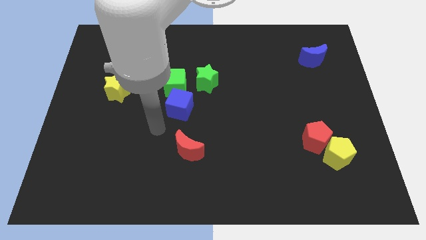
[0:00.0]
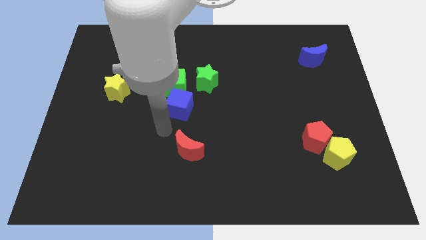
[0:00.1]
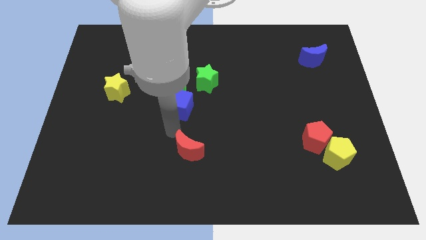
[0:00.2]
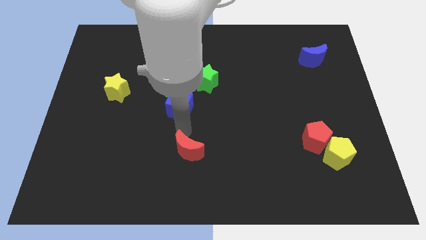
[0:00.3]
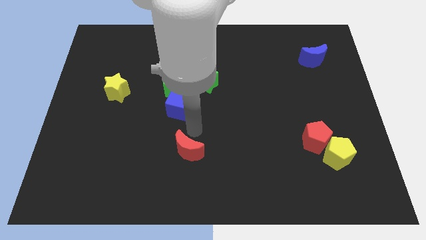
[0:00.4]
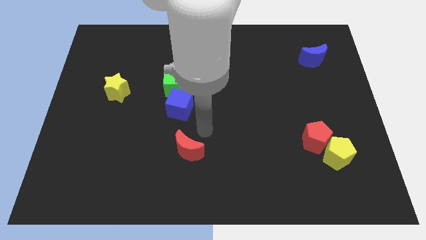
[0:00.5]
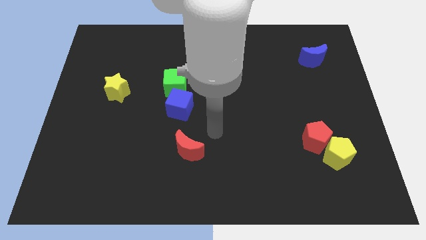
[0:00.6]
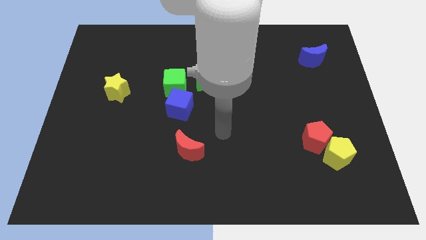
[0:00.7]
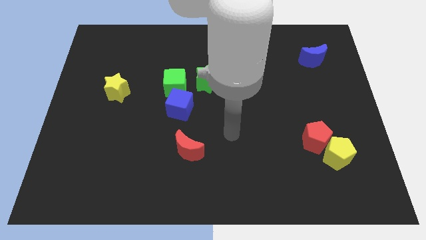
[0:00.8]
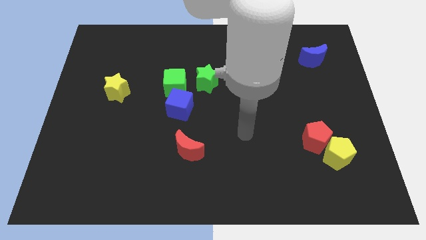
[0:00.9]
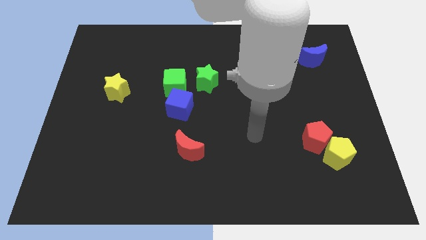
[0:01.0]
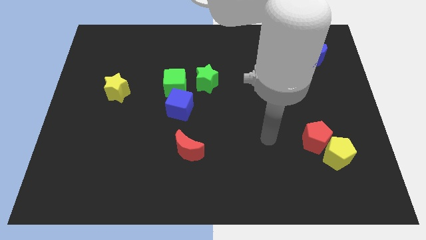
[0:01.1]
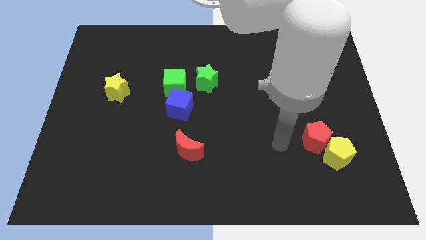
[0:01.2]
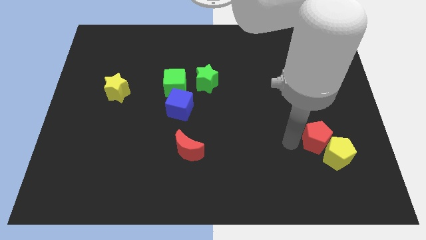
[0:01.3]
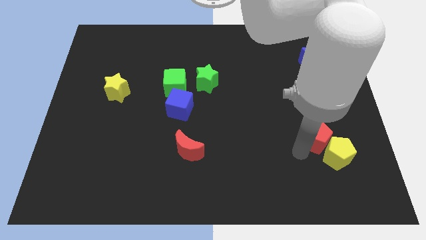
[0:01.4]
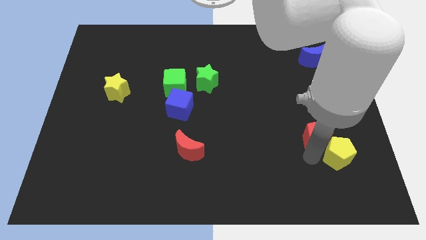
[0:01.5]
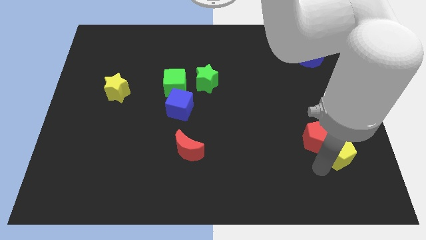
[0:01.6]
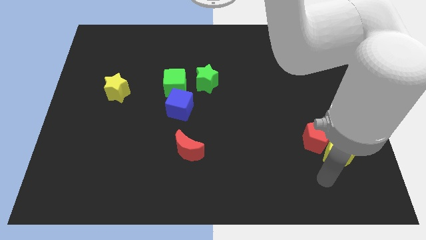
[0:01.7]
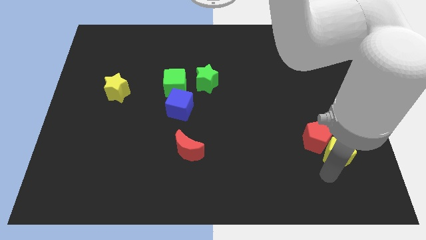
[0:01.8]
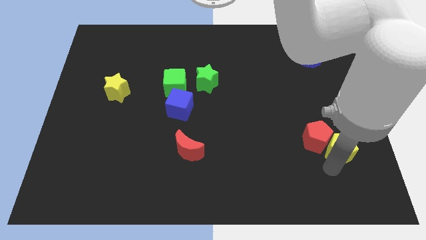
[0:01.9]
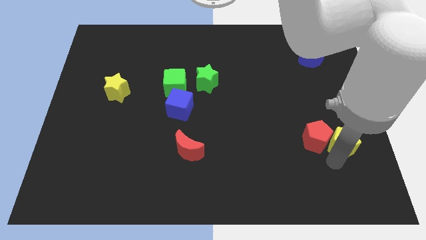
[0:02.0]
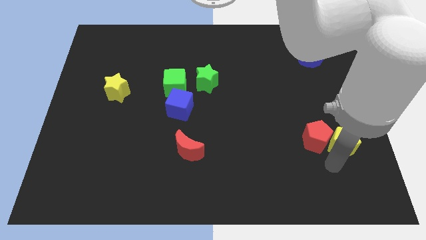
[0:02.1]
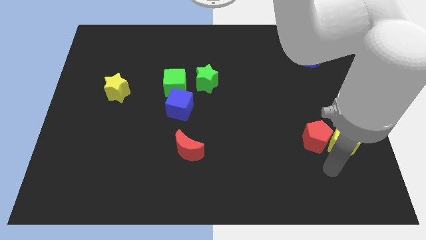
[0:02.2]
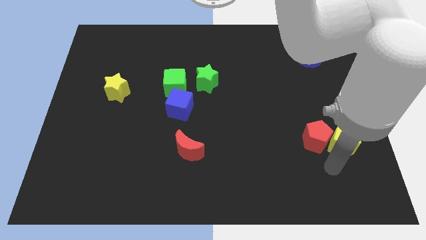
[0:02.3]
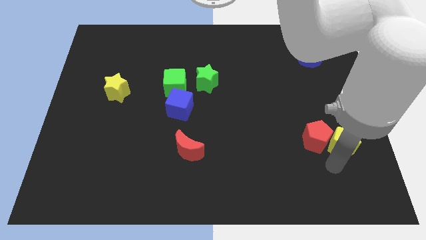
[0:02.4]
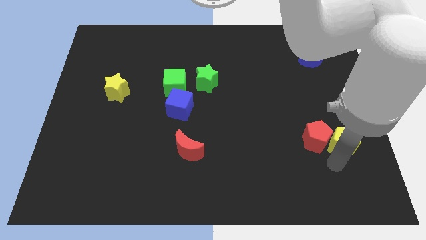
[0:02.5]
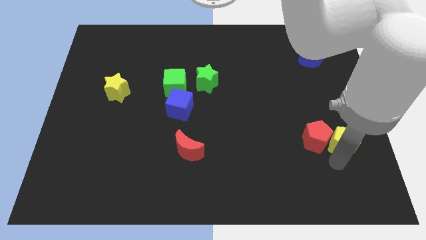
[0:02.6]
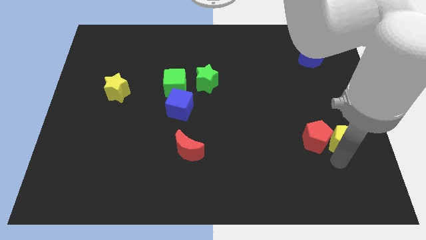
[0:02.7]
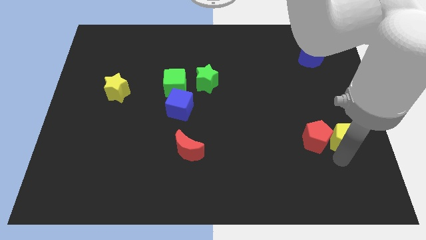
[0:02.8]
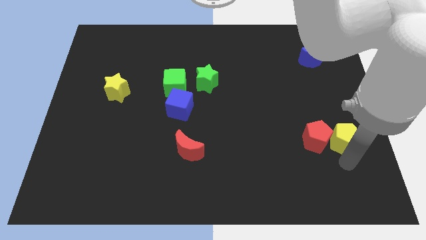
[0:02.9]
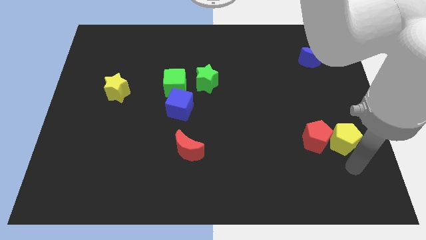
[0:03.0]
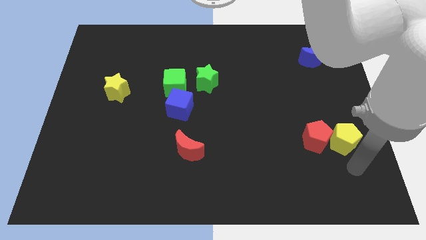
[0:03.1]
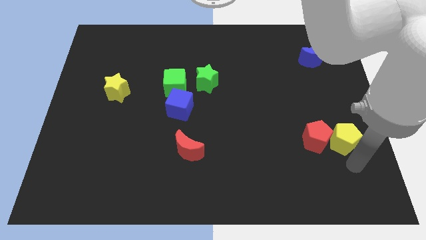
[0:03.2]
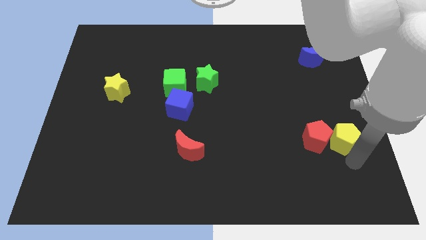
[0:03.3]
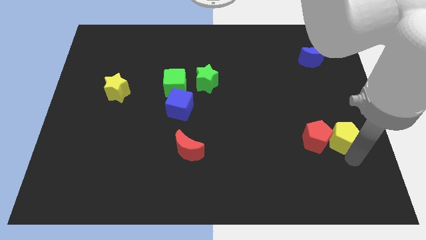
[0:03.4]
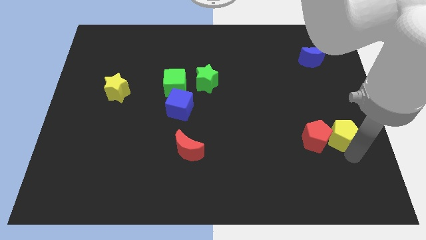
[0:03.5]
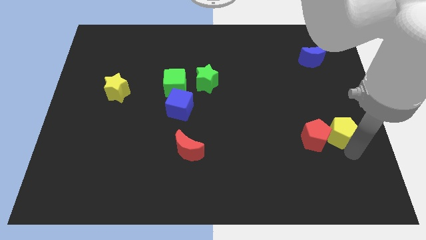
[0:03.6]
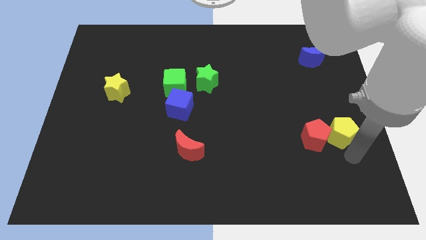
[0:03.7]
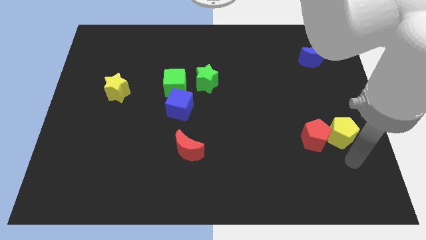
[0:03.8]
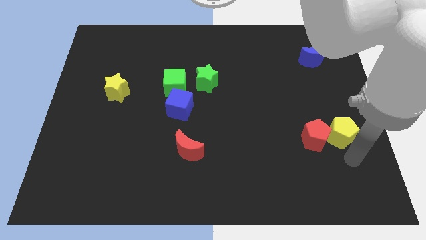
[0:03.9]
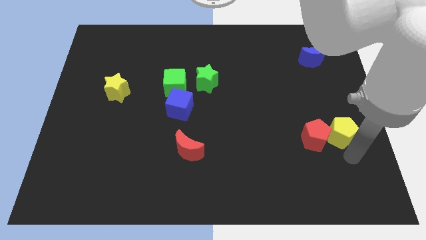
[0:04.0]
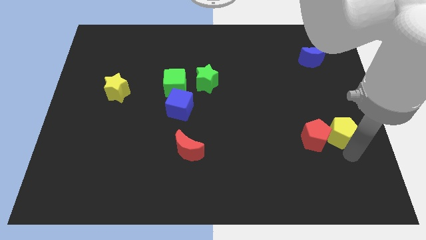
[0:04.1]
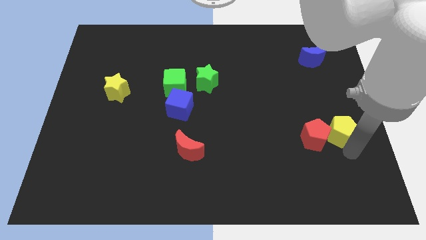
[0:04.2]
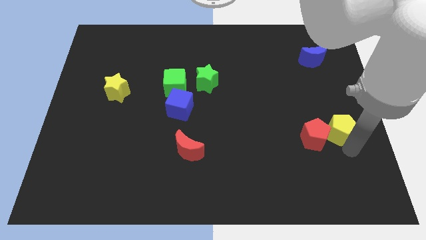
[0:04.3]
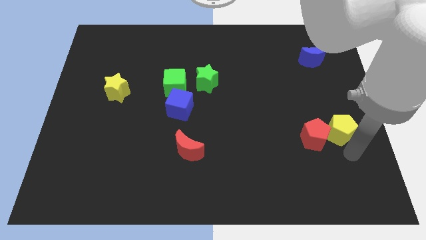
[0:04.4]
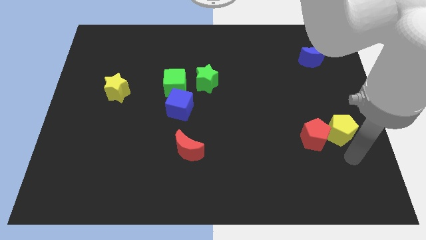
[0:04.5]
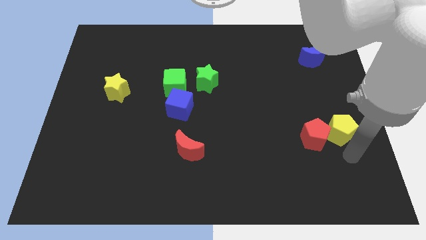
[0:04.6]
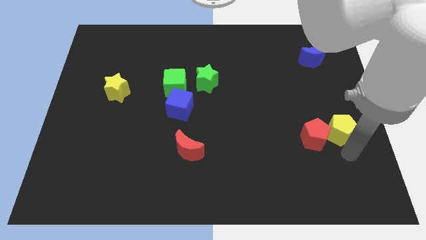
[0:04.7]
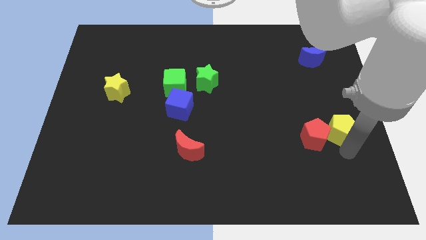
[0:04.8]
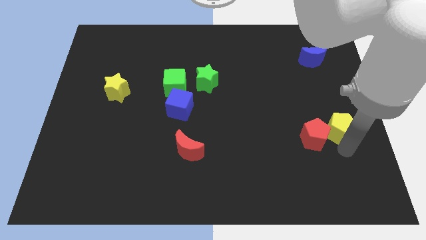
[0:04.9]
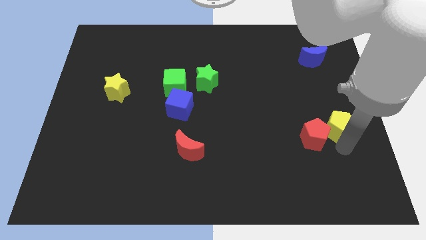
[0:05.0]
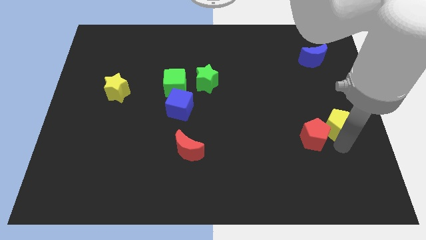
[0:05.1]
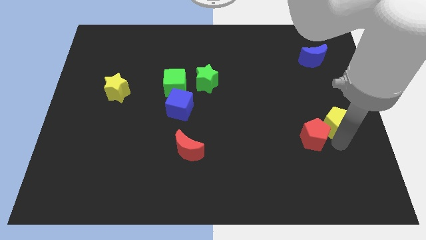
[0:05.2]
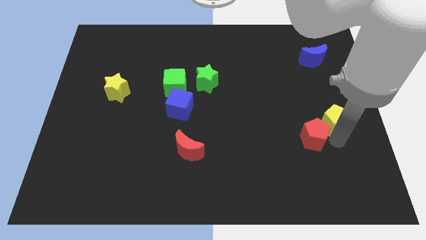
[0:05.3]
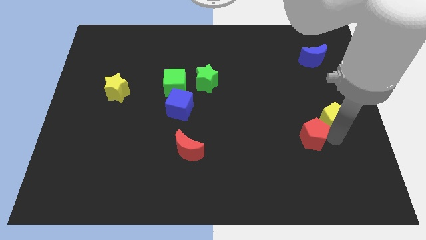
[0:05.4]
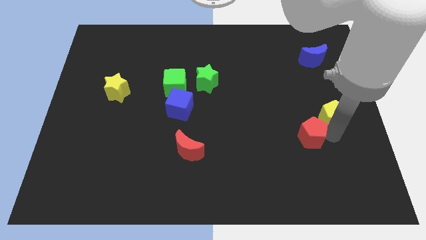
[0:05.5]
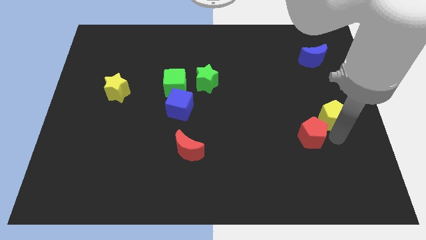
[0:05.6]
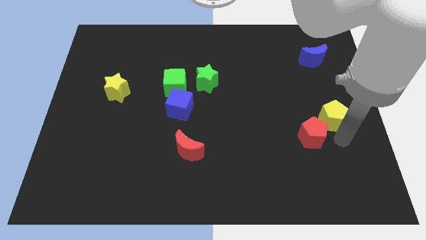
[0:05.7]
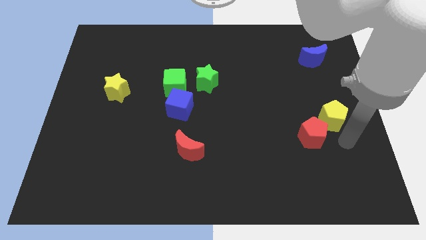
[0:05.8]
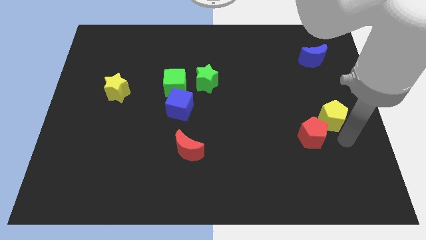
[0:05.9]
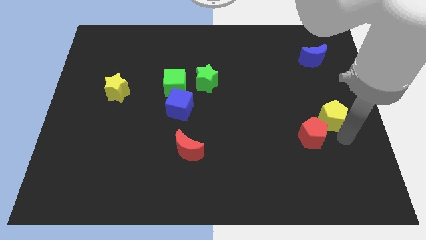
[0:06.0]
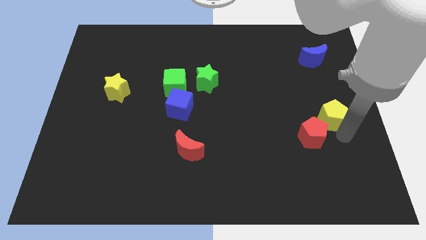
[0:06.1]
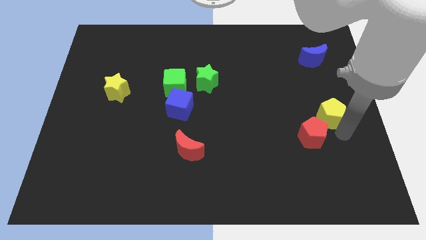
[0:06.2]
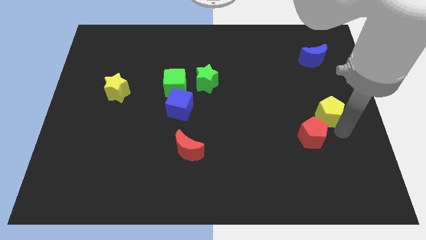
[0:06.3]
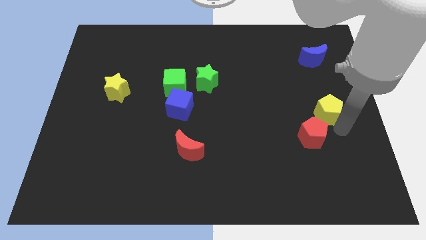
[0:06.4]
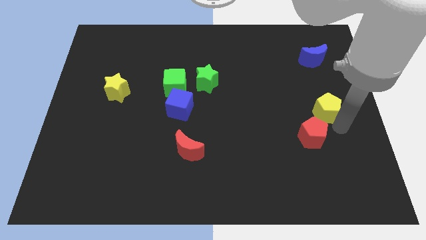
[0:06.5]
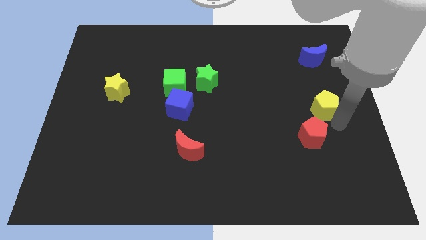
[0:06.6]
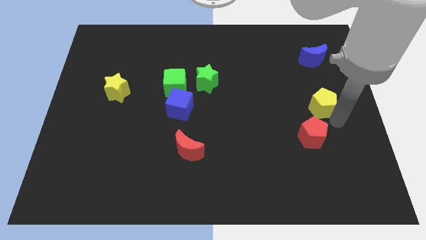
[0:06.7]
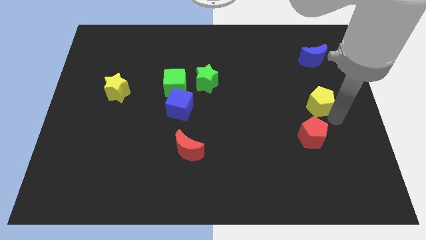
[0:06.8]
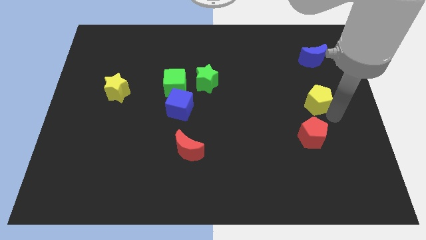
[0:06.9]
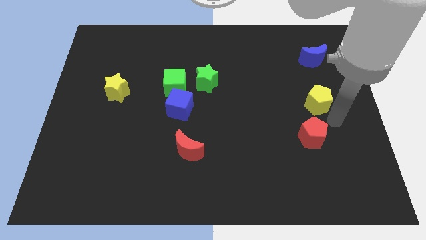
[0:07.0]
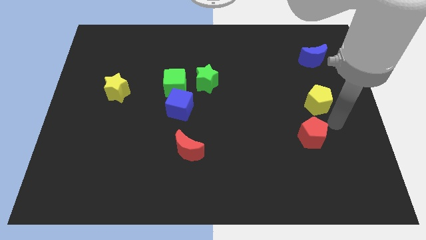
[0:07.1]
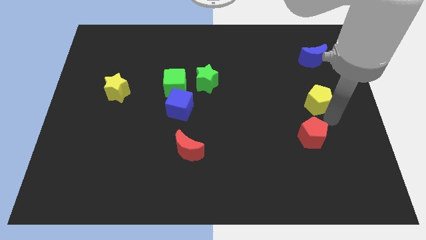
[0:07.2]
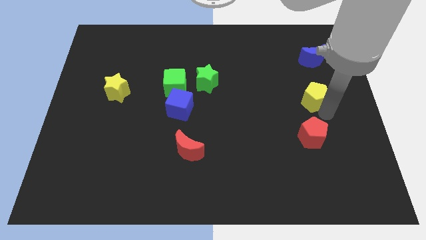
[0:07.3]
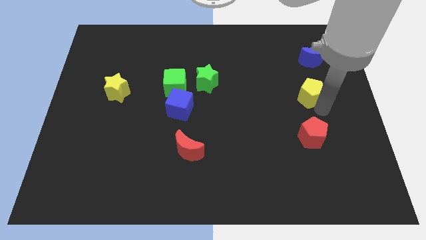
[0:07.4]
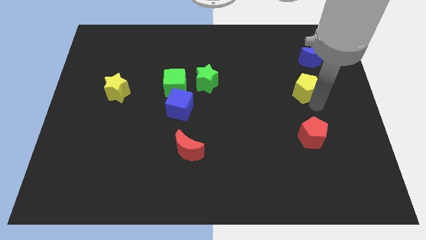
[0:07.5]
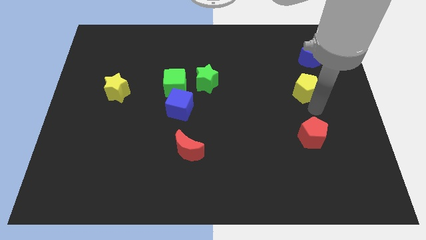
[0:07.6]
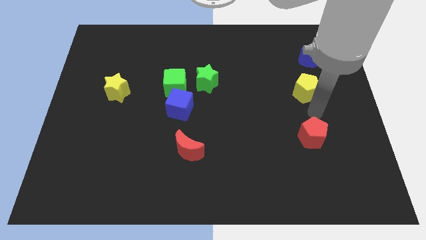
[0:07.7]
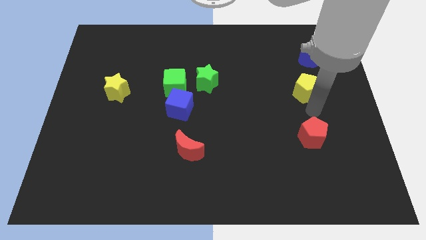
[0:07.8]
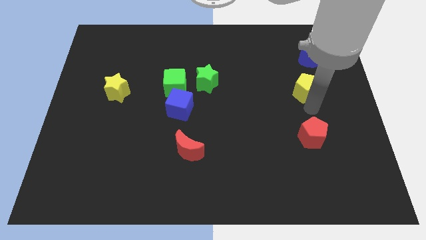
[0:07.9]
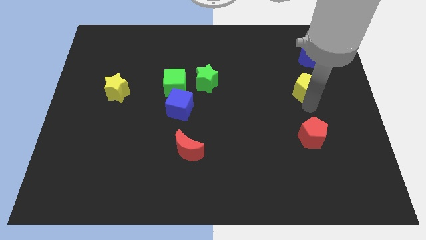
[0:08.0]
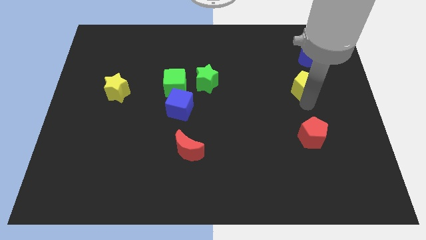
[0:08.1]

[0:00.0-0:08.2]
push the yellow pentagon to the bottom left of the blue moon
